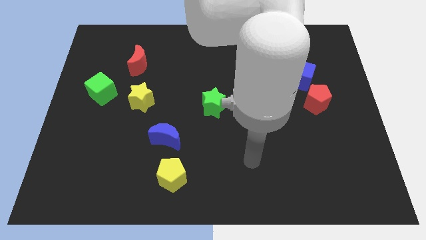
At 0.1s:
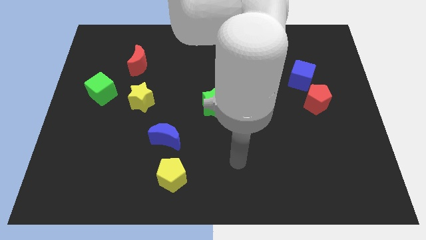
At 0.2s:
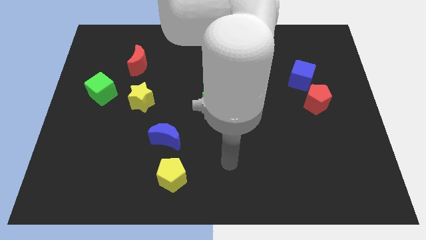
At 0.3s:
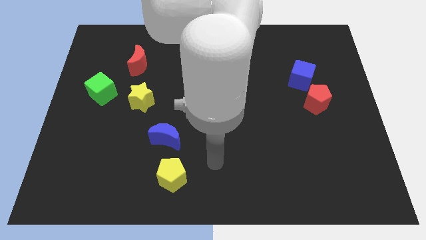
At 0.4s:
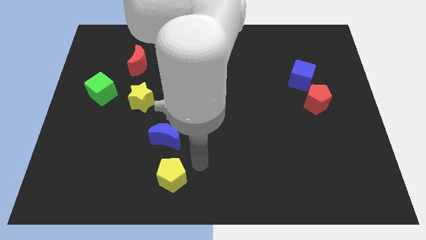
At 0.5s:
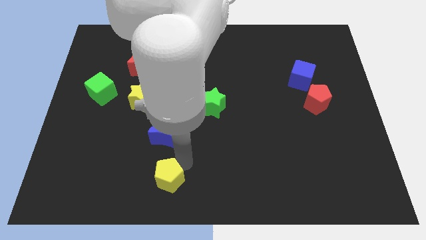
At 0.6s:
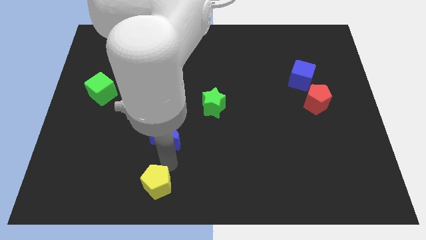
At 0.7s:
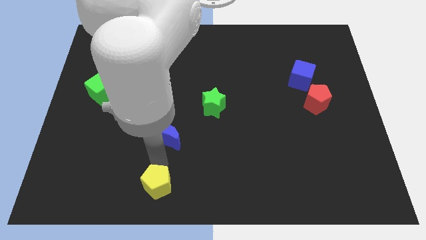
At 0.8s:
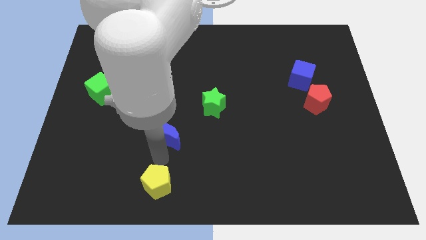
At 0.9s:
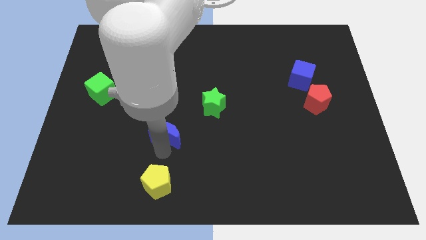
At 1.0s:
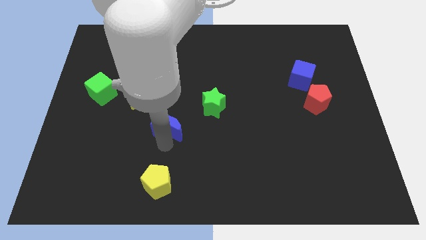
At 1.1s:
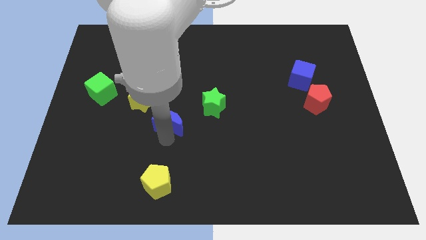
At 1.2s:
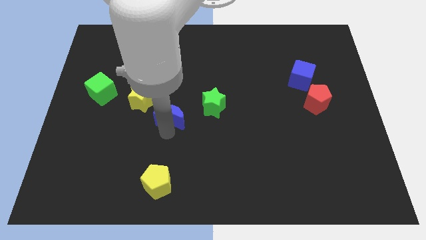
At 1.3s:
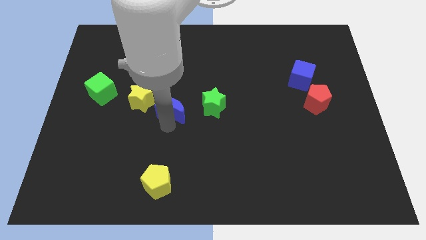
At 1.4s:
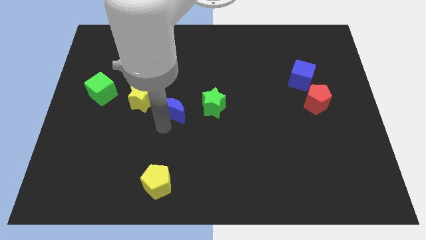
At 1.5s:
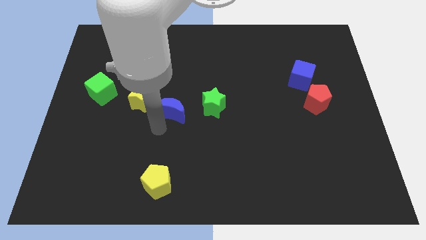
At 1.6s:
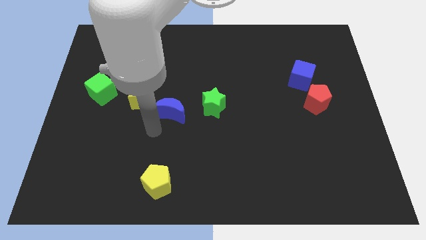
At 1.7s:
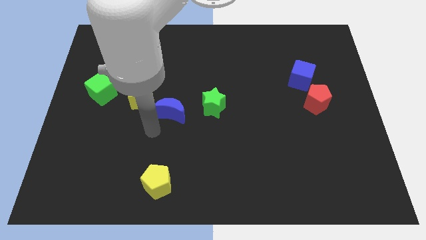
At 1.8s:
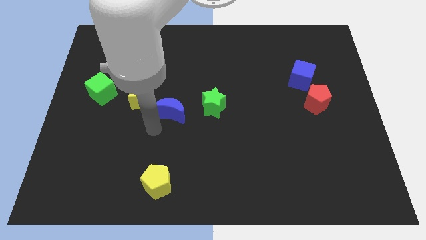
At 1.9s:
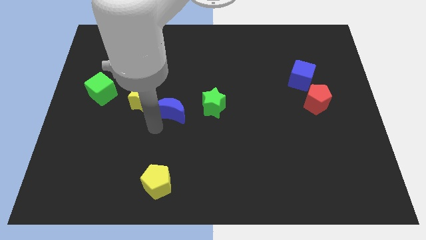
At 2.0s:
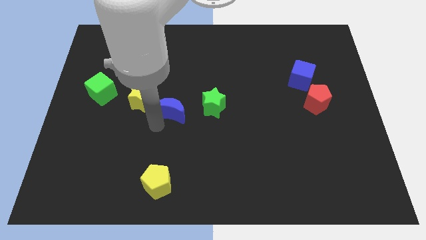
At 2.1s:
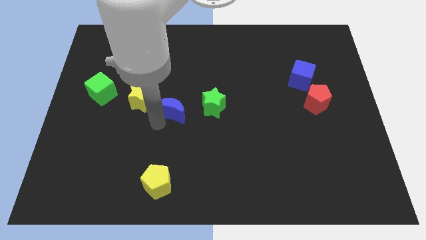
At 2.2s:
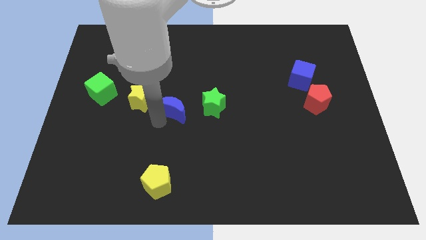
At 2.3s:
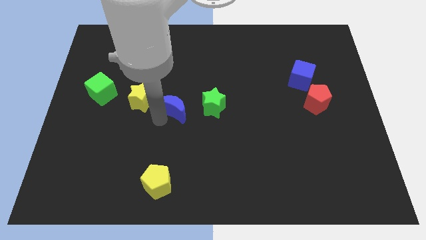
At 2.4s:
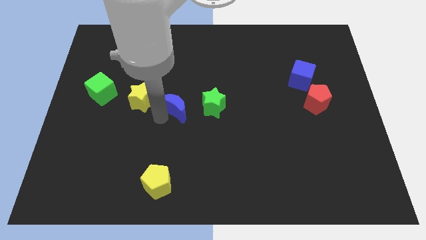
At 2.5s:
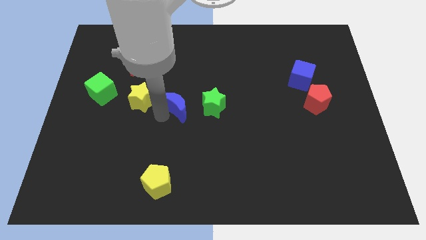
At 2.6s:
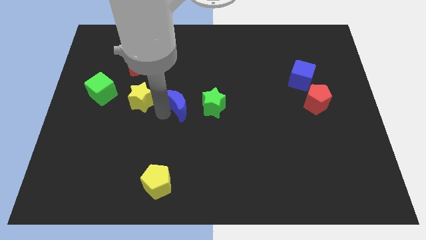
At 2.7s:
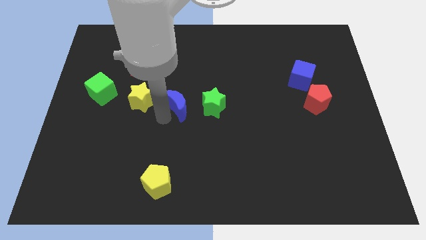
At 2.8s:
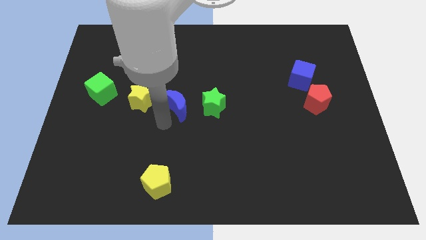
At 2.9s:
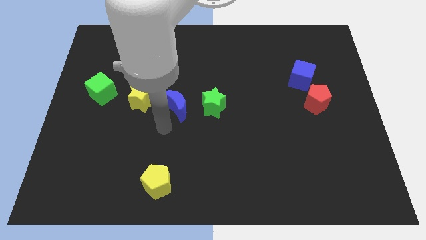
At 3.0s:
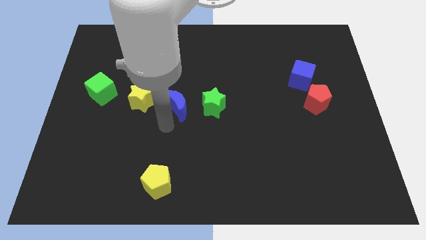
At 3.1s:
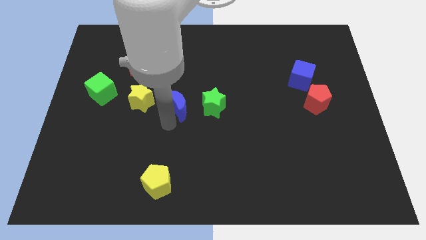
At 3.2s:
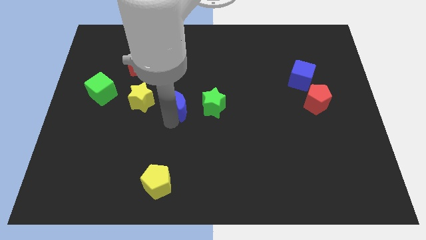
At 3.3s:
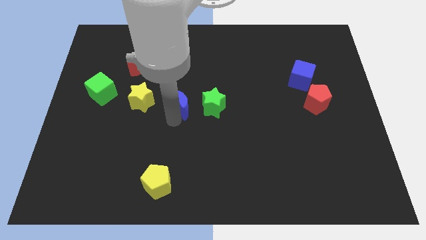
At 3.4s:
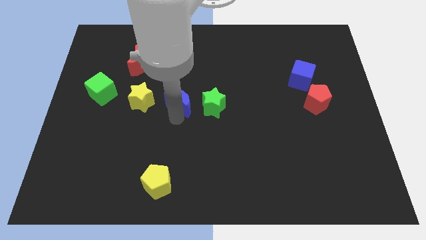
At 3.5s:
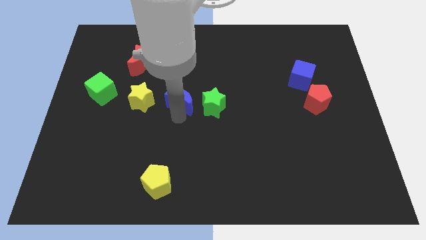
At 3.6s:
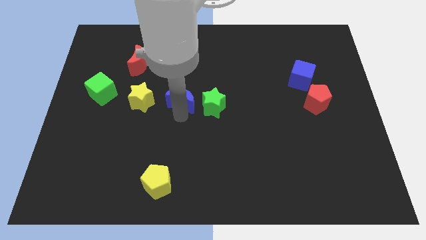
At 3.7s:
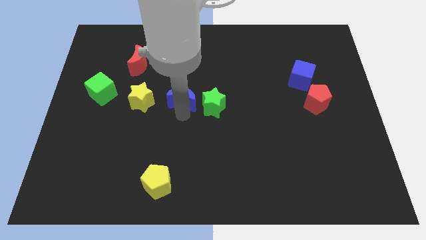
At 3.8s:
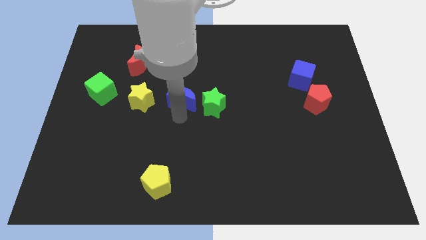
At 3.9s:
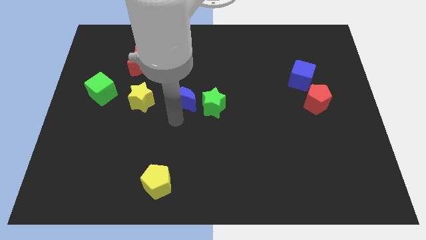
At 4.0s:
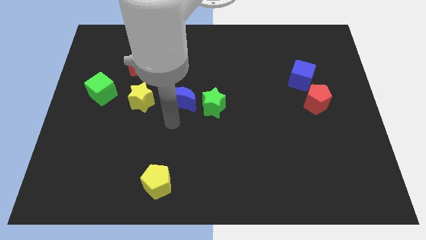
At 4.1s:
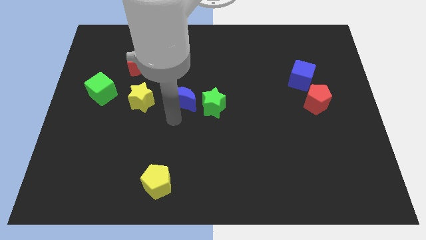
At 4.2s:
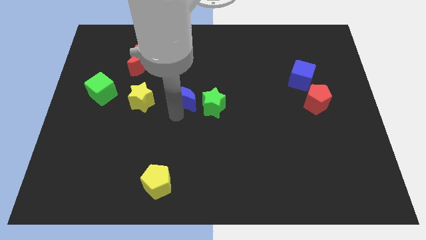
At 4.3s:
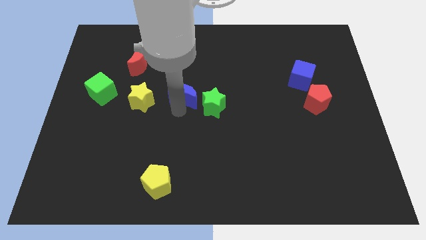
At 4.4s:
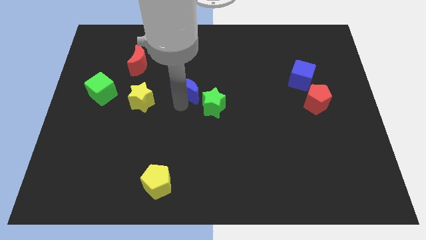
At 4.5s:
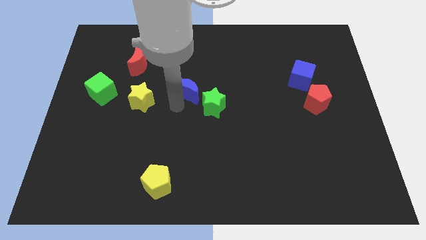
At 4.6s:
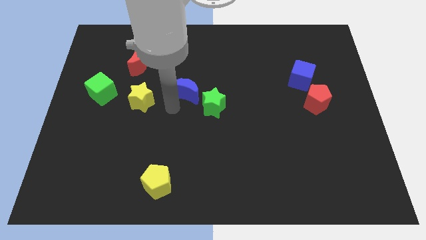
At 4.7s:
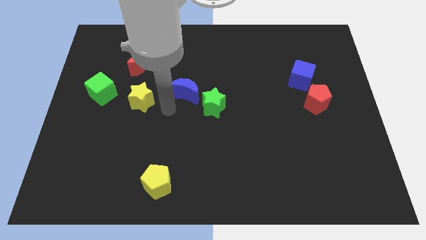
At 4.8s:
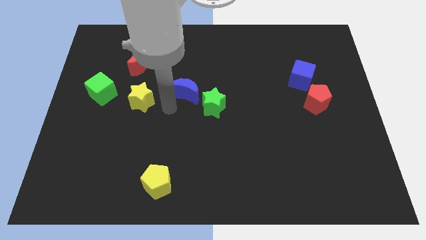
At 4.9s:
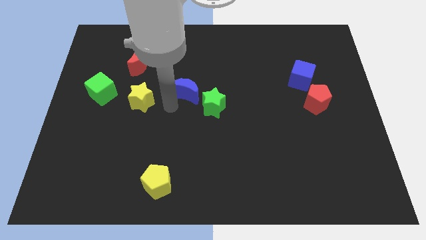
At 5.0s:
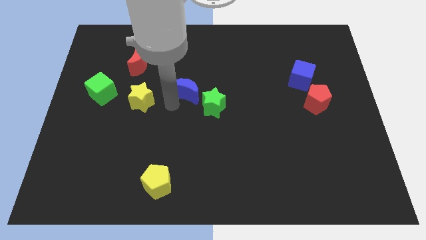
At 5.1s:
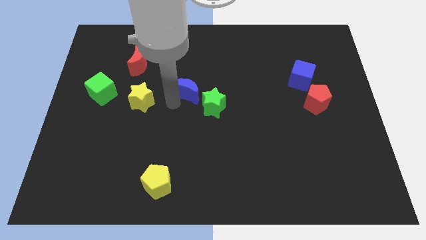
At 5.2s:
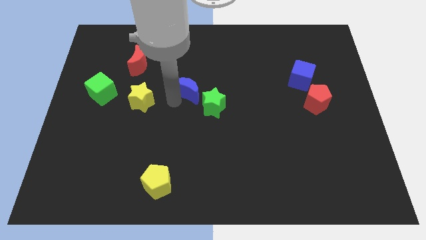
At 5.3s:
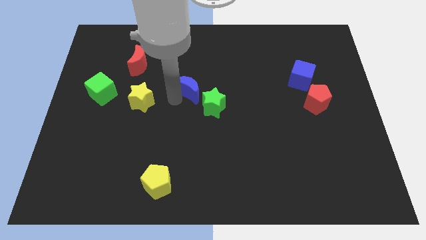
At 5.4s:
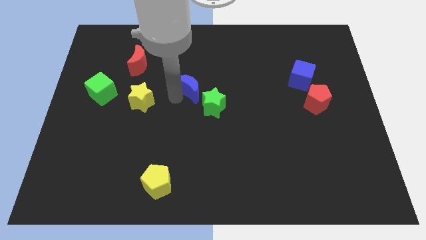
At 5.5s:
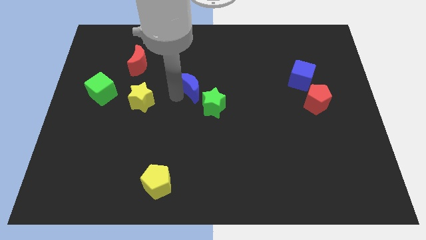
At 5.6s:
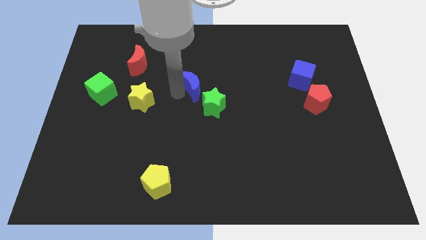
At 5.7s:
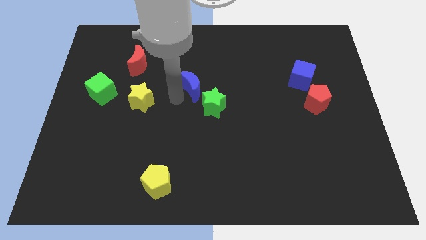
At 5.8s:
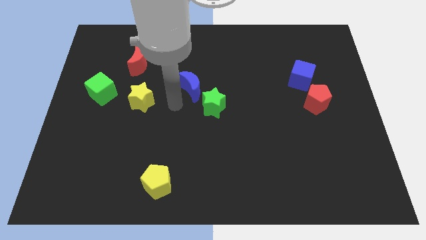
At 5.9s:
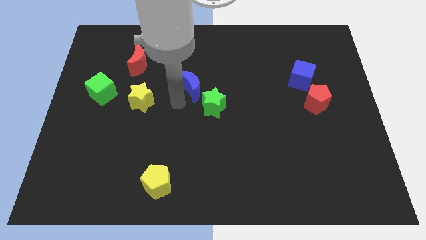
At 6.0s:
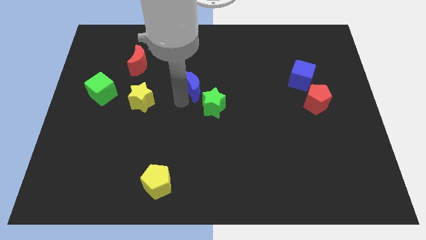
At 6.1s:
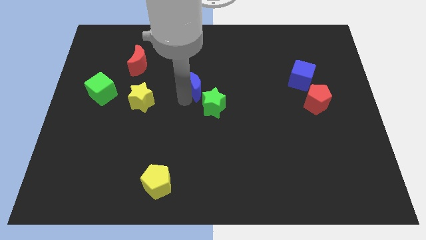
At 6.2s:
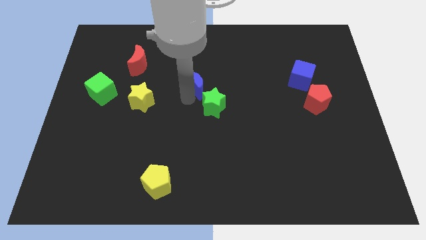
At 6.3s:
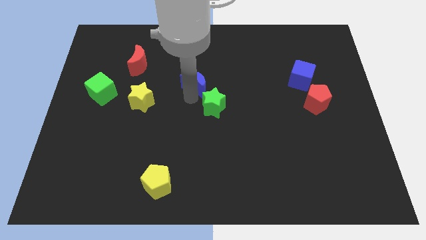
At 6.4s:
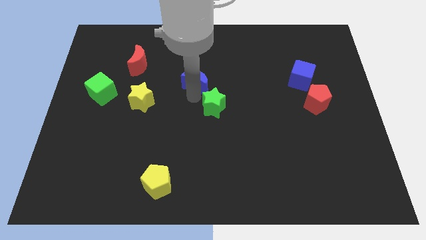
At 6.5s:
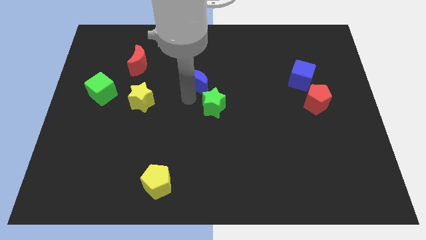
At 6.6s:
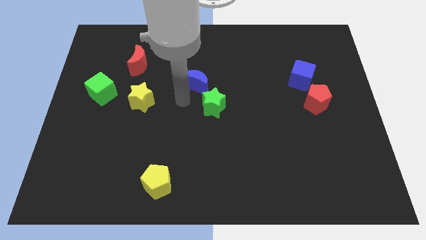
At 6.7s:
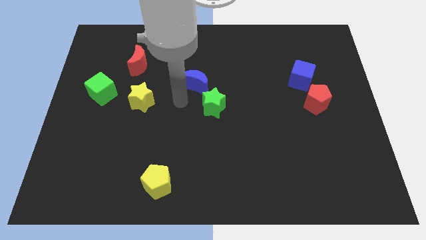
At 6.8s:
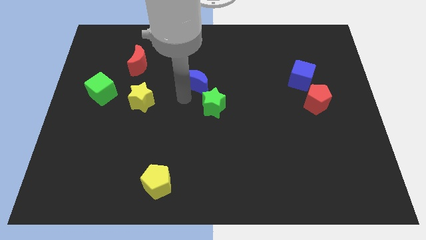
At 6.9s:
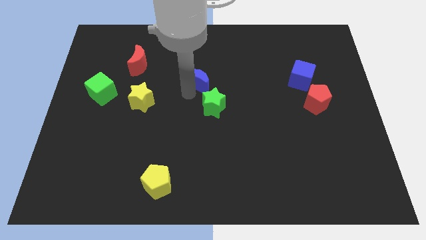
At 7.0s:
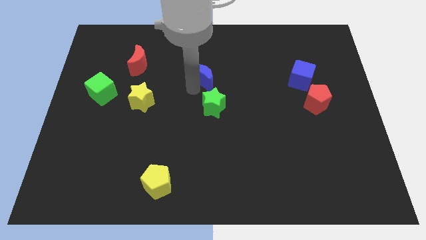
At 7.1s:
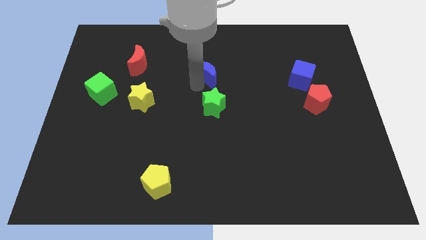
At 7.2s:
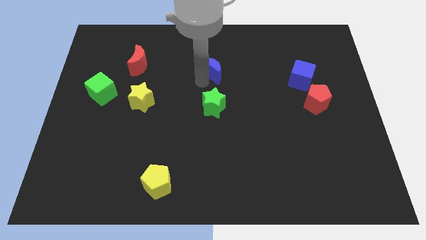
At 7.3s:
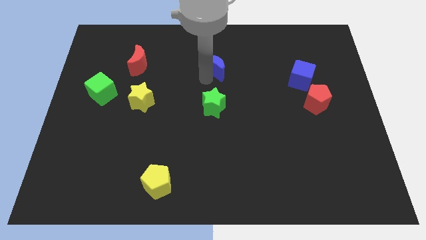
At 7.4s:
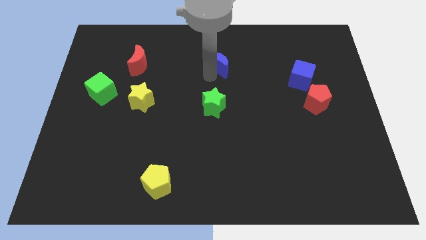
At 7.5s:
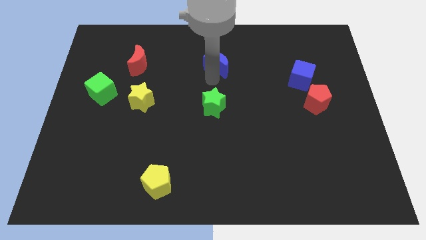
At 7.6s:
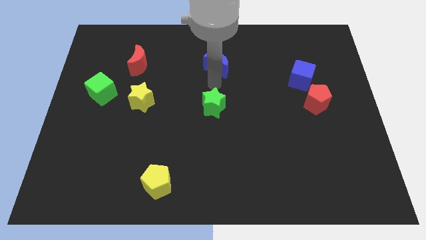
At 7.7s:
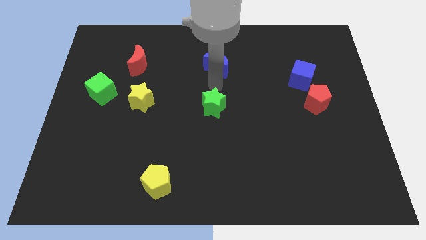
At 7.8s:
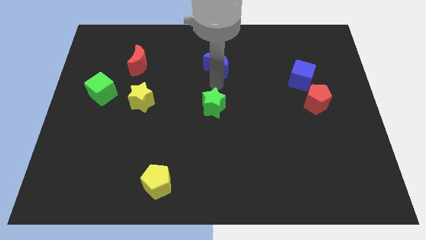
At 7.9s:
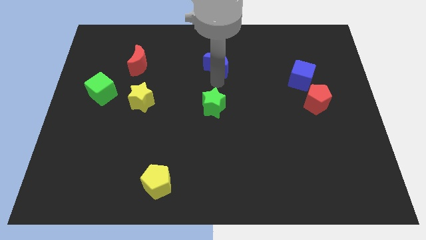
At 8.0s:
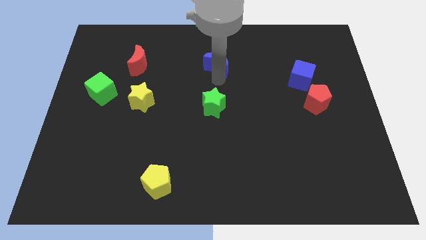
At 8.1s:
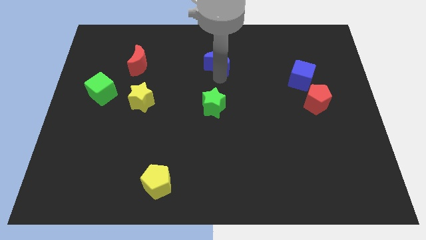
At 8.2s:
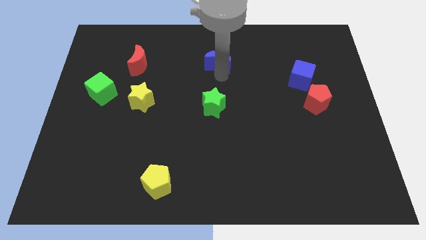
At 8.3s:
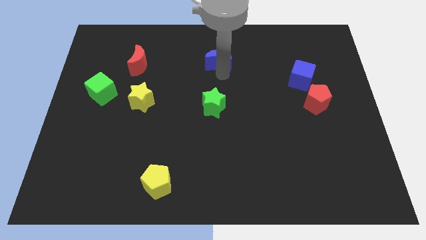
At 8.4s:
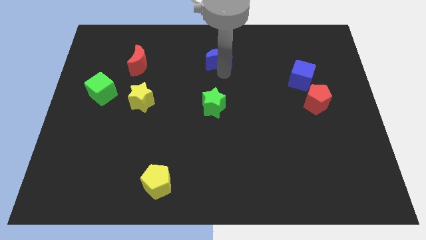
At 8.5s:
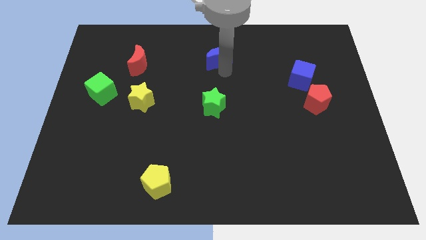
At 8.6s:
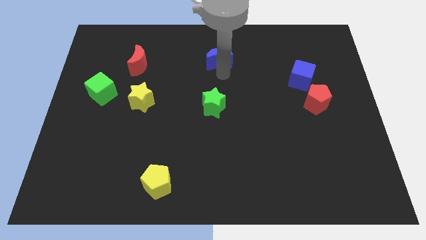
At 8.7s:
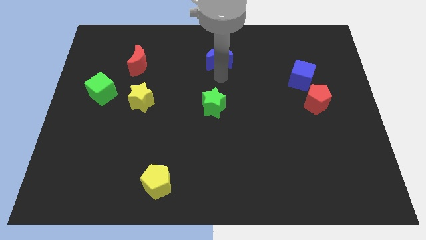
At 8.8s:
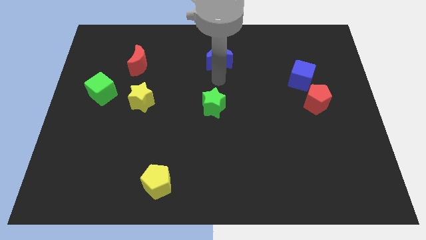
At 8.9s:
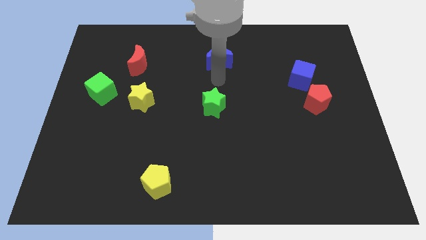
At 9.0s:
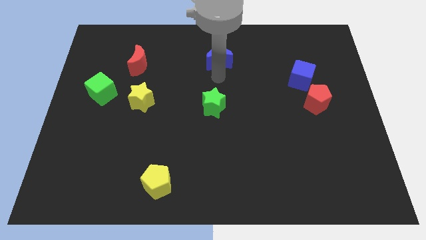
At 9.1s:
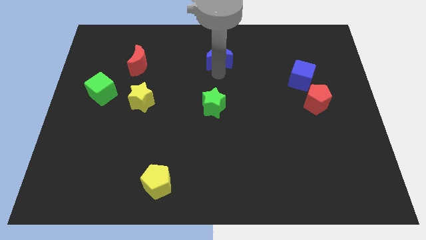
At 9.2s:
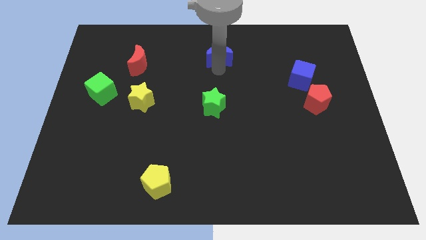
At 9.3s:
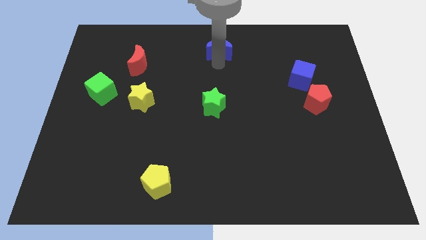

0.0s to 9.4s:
put the blue moon to the top
